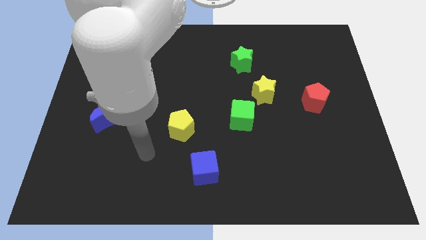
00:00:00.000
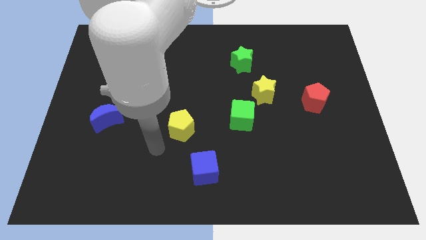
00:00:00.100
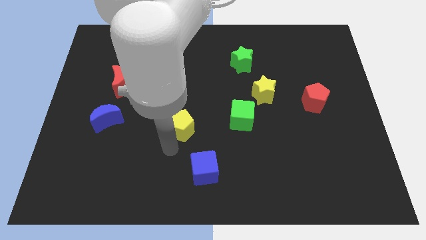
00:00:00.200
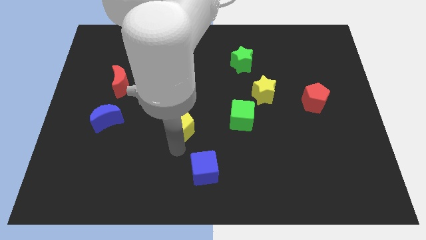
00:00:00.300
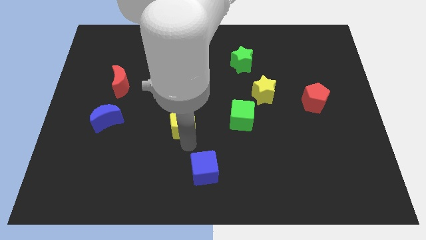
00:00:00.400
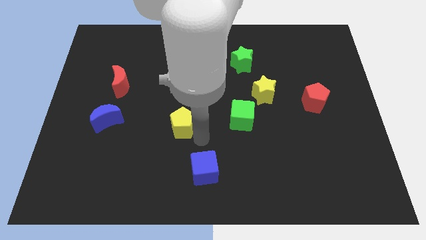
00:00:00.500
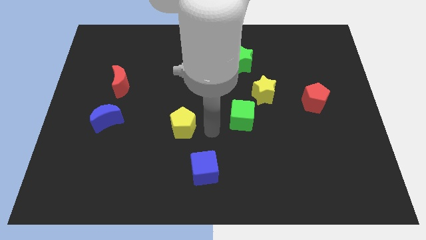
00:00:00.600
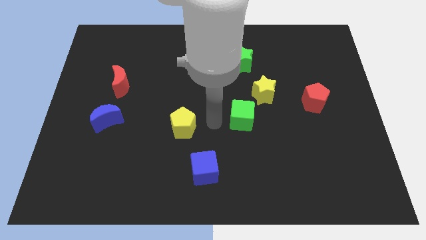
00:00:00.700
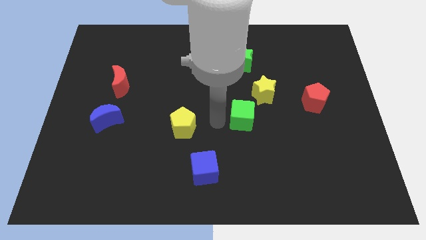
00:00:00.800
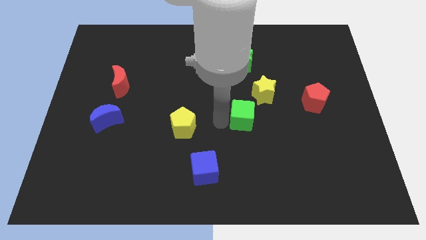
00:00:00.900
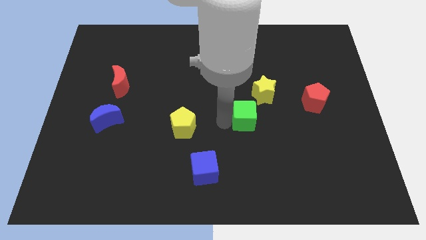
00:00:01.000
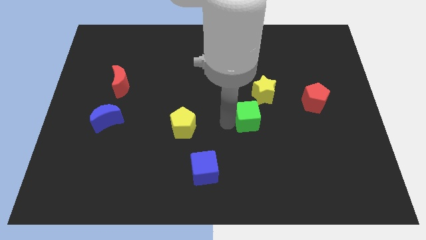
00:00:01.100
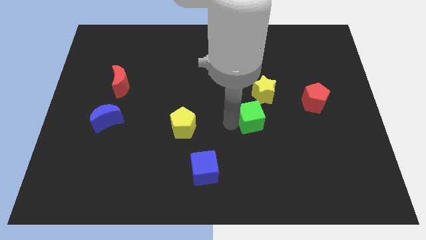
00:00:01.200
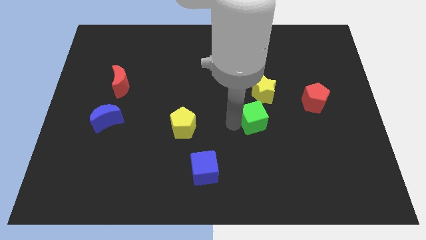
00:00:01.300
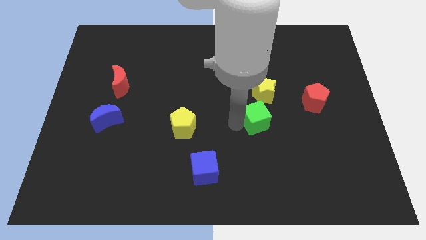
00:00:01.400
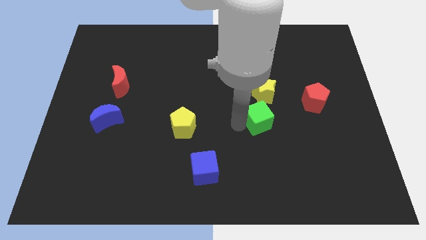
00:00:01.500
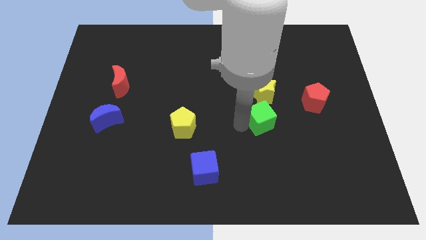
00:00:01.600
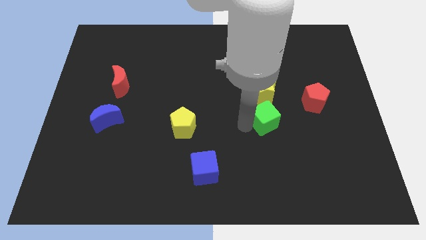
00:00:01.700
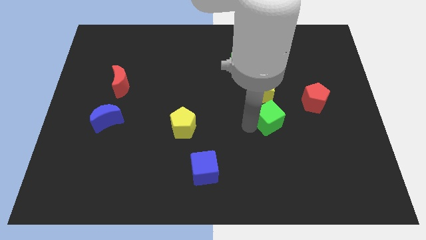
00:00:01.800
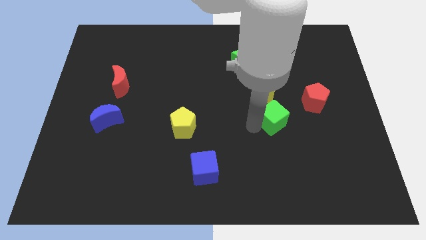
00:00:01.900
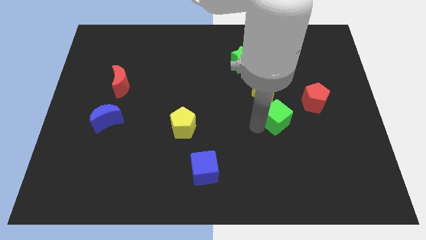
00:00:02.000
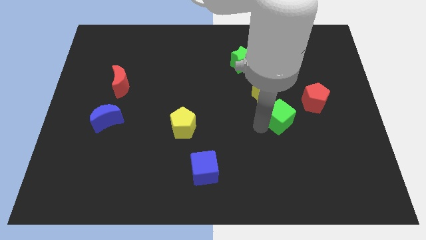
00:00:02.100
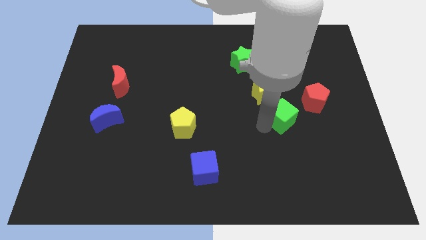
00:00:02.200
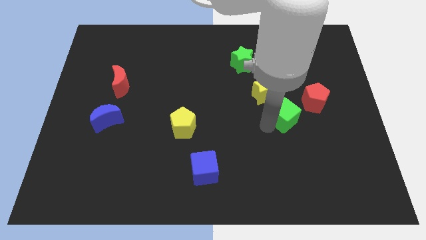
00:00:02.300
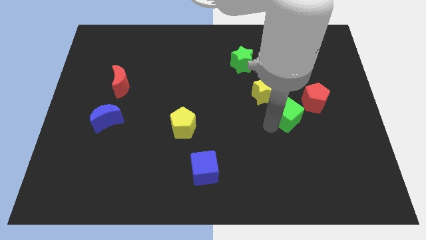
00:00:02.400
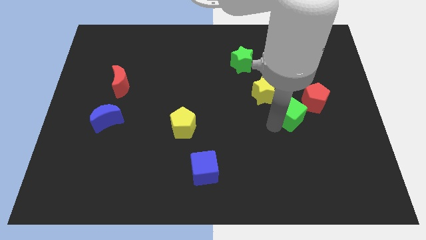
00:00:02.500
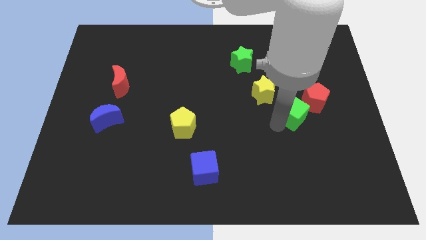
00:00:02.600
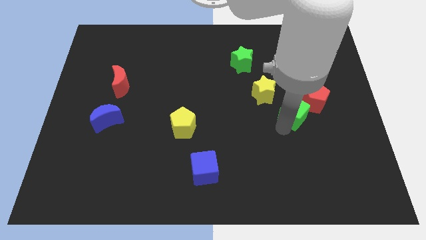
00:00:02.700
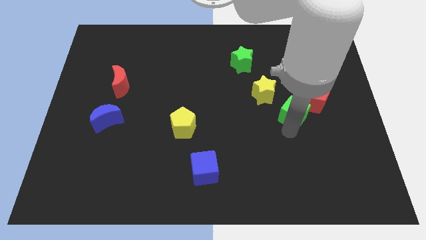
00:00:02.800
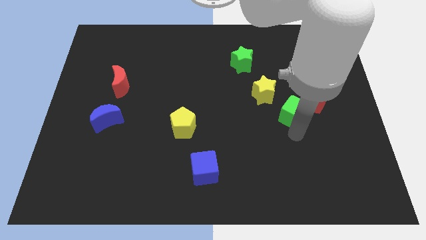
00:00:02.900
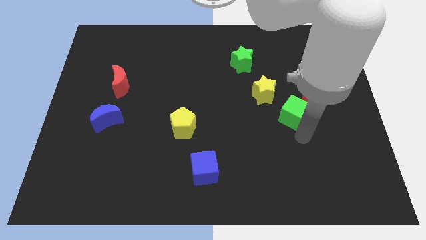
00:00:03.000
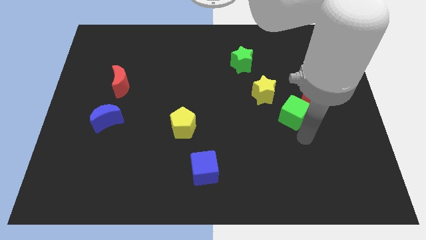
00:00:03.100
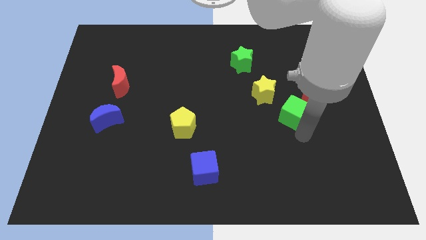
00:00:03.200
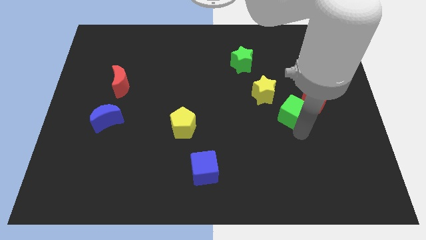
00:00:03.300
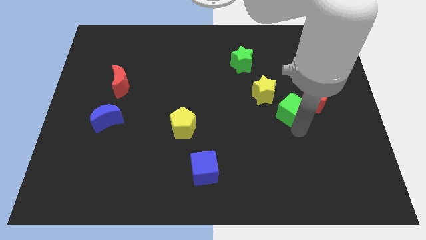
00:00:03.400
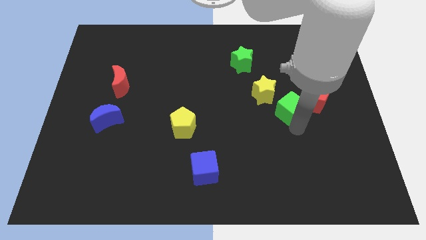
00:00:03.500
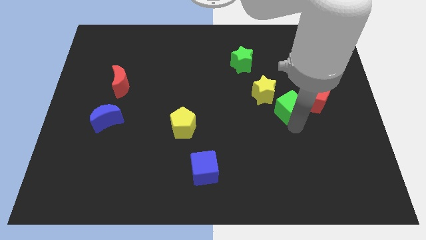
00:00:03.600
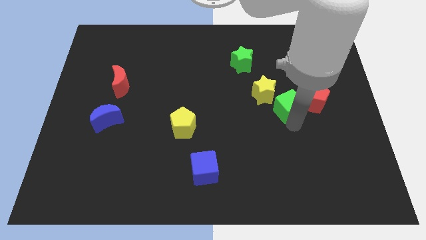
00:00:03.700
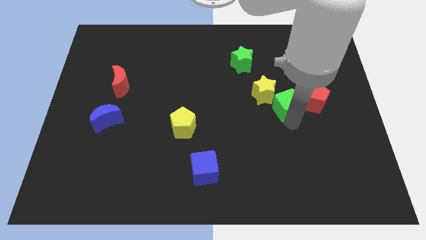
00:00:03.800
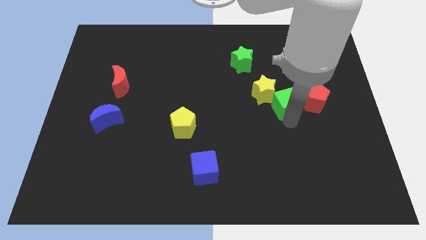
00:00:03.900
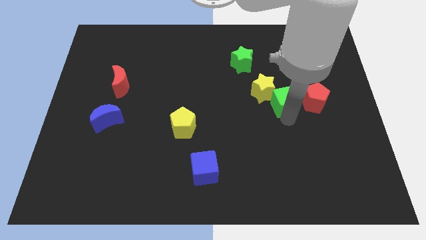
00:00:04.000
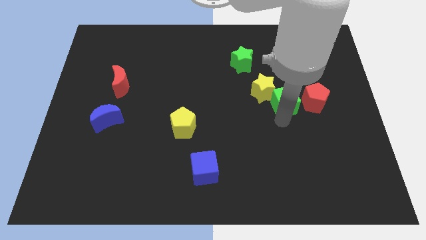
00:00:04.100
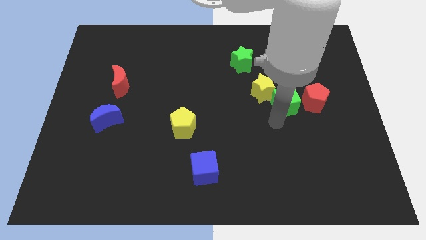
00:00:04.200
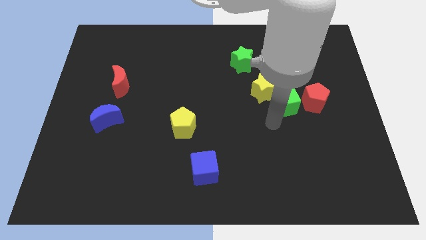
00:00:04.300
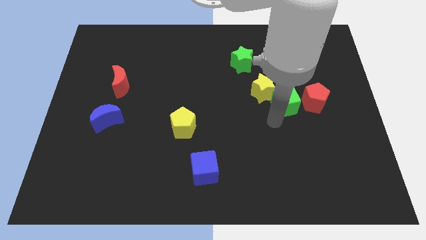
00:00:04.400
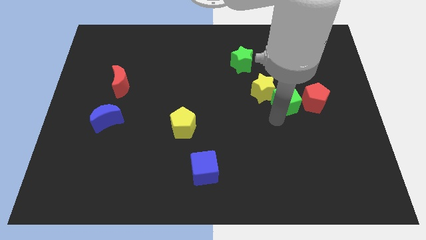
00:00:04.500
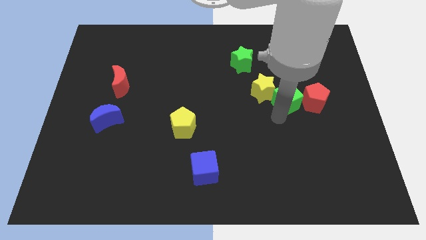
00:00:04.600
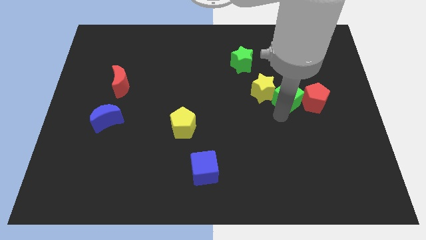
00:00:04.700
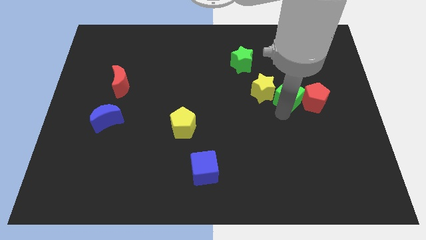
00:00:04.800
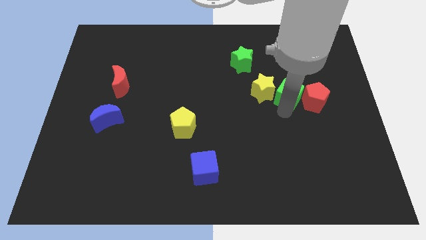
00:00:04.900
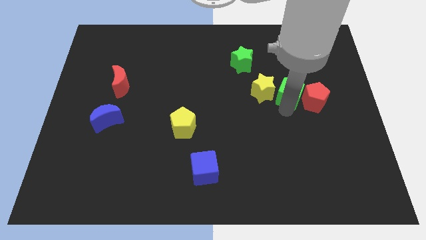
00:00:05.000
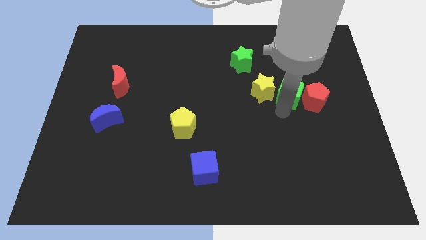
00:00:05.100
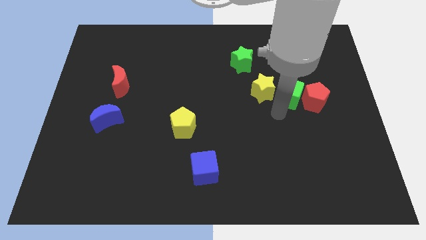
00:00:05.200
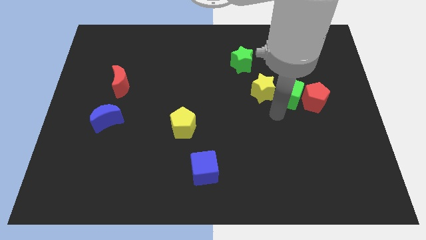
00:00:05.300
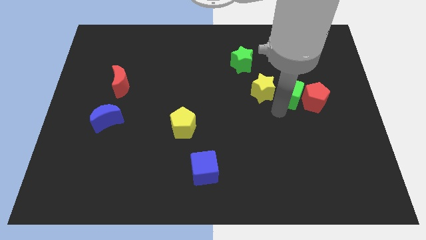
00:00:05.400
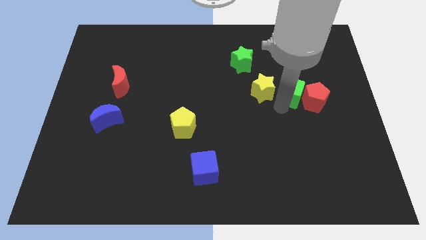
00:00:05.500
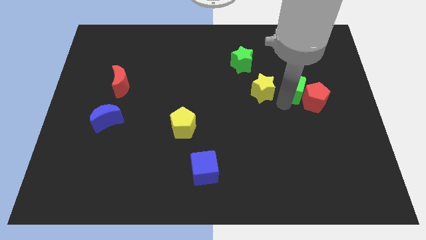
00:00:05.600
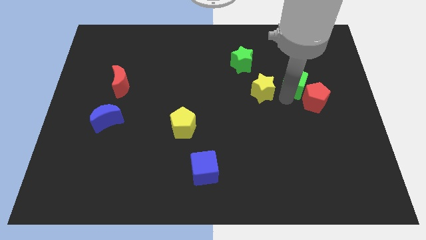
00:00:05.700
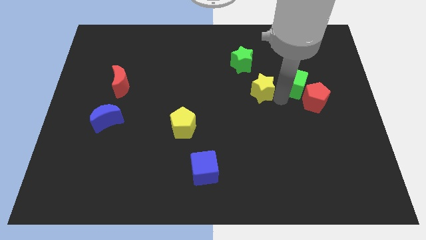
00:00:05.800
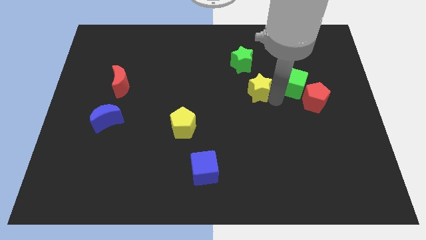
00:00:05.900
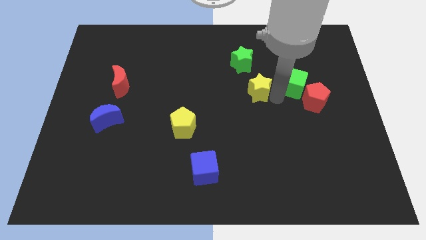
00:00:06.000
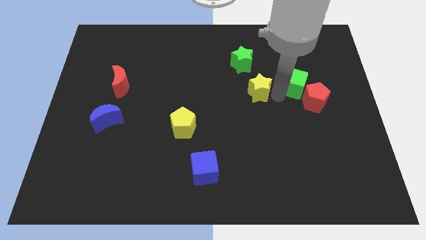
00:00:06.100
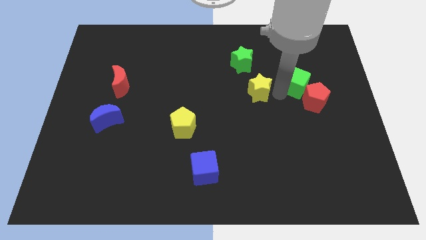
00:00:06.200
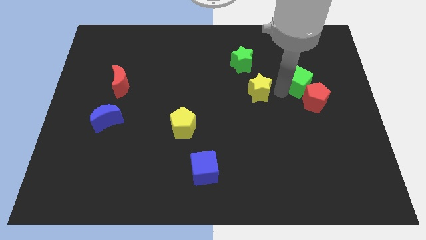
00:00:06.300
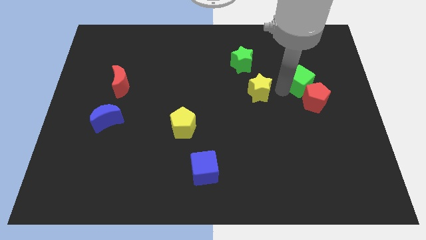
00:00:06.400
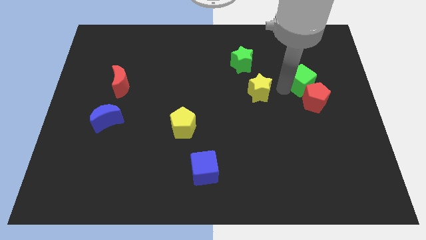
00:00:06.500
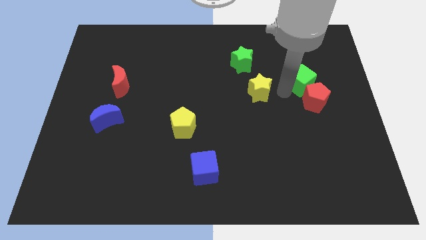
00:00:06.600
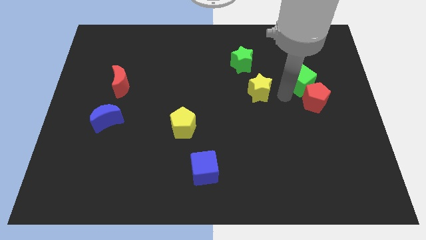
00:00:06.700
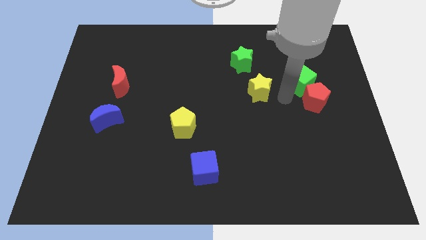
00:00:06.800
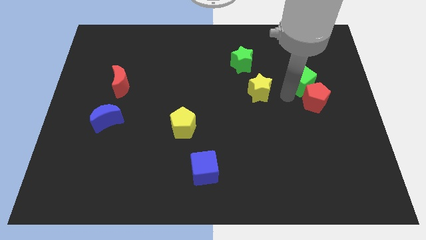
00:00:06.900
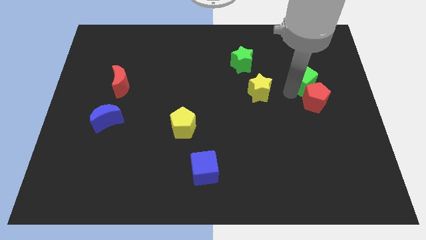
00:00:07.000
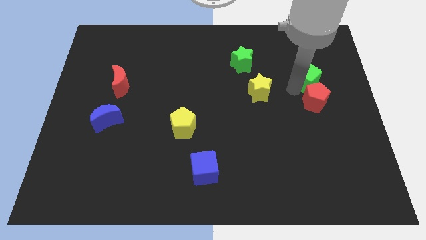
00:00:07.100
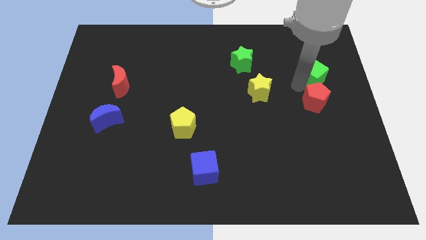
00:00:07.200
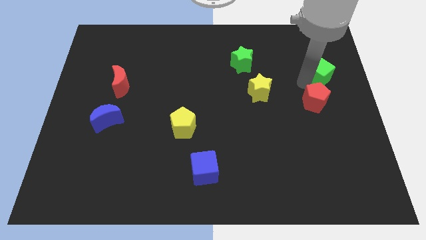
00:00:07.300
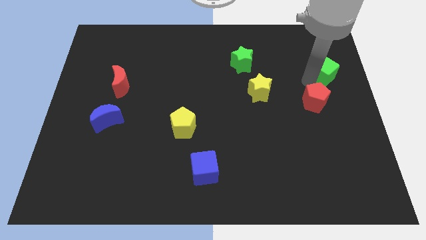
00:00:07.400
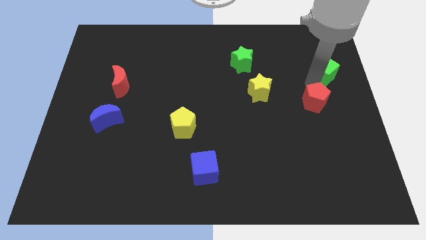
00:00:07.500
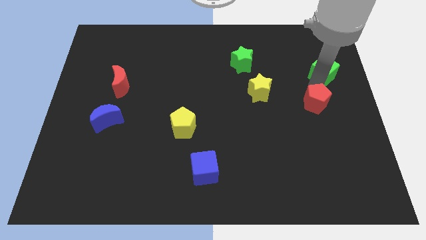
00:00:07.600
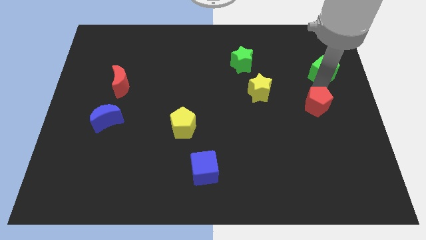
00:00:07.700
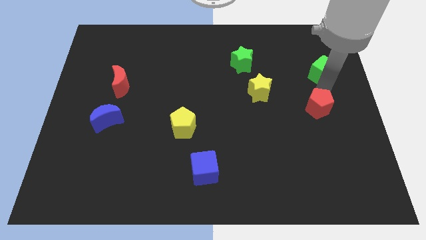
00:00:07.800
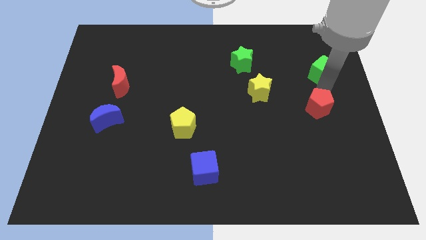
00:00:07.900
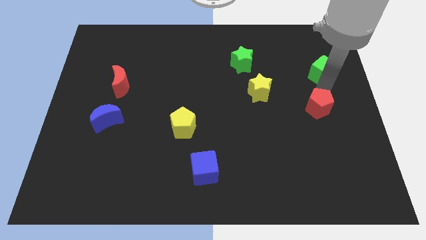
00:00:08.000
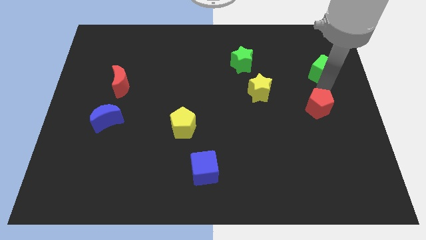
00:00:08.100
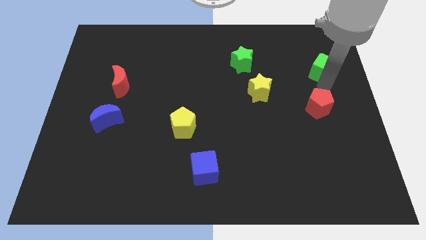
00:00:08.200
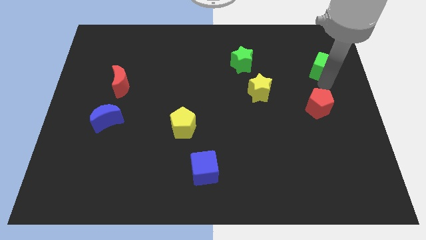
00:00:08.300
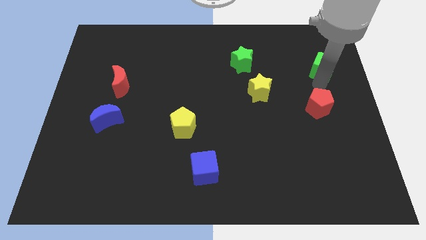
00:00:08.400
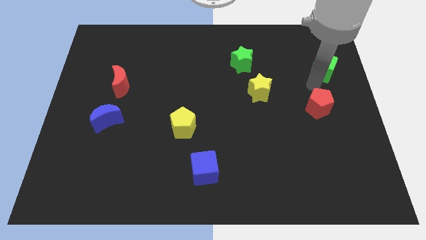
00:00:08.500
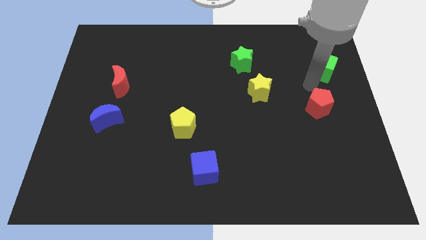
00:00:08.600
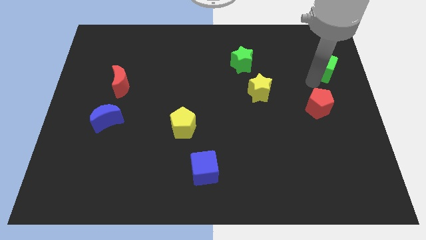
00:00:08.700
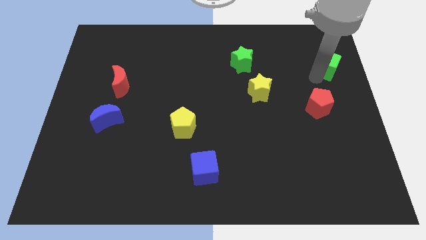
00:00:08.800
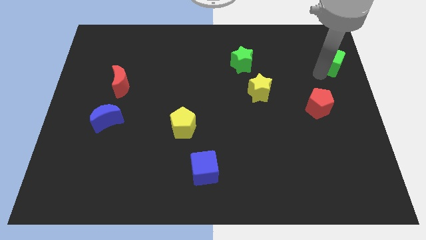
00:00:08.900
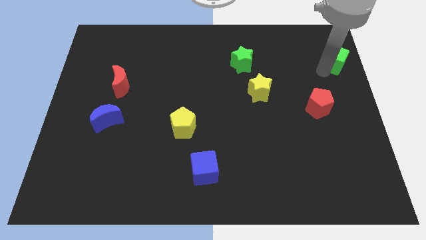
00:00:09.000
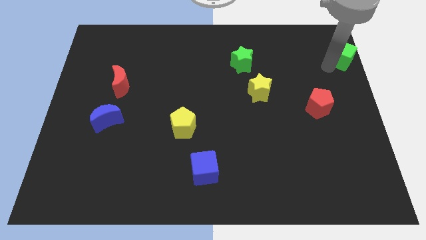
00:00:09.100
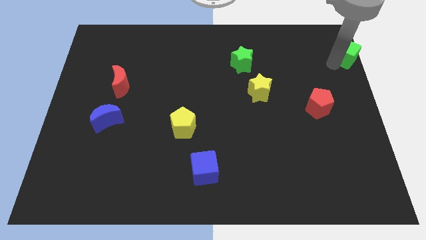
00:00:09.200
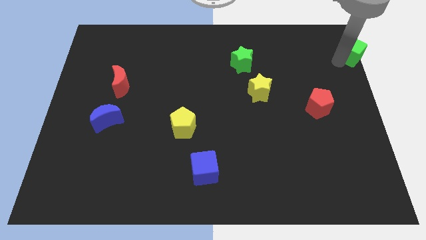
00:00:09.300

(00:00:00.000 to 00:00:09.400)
push the green cube to the top right of the board
